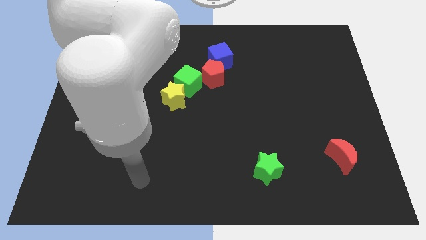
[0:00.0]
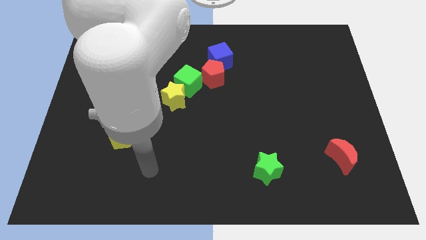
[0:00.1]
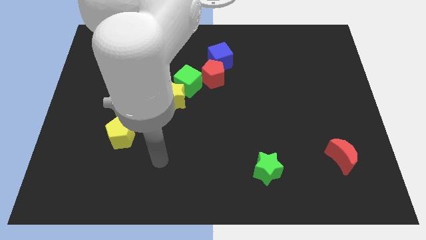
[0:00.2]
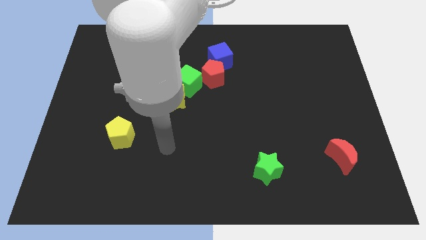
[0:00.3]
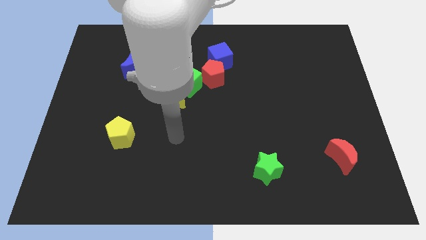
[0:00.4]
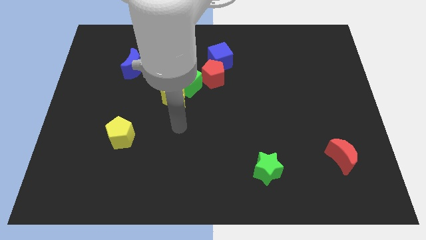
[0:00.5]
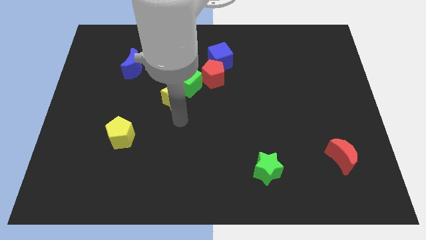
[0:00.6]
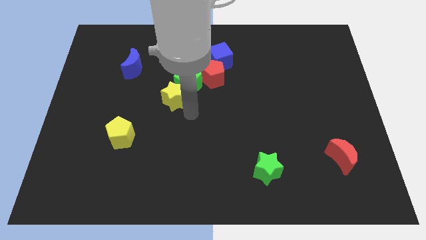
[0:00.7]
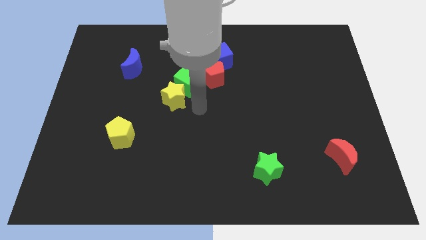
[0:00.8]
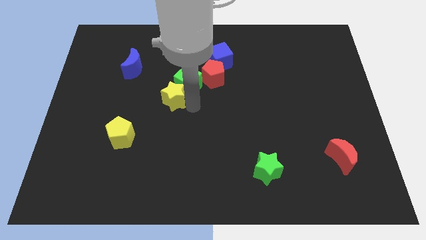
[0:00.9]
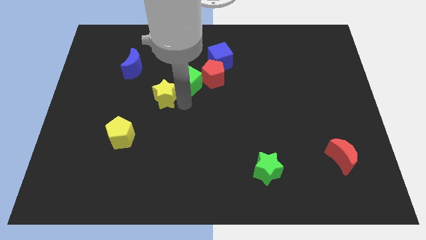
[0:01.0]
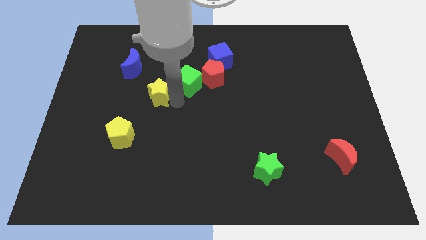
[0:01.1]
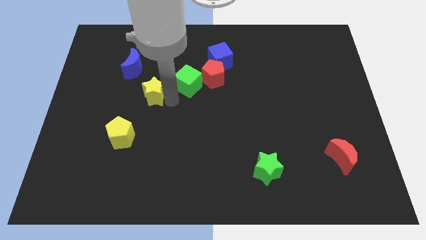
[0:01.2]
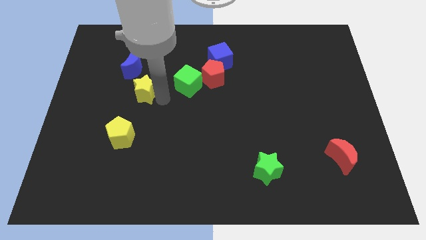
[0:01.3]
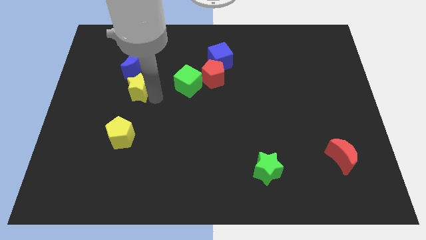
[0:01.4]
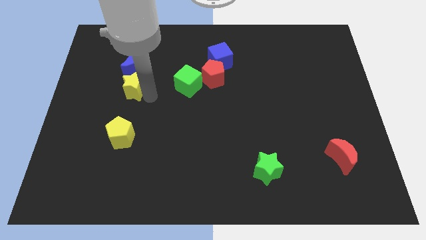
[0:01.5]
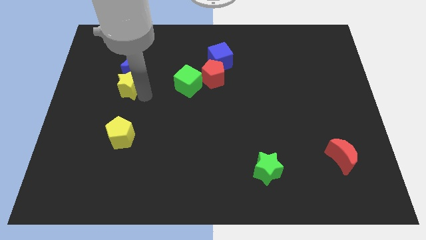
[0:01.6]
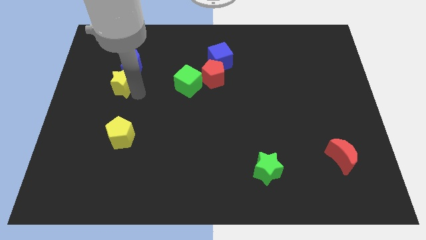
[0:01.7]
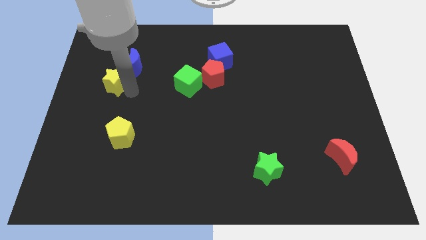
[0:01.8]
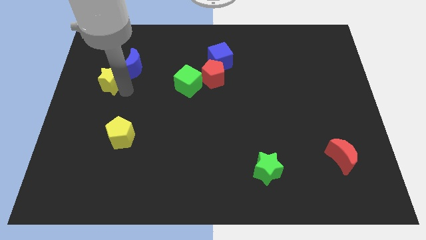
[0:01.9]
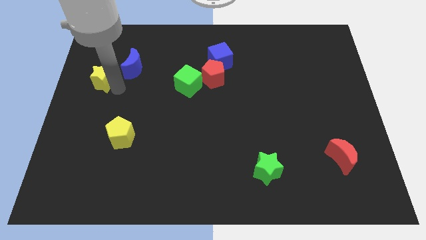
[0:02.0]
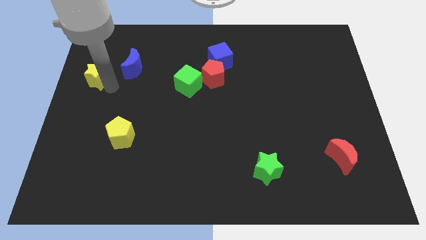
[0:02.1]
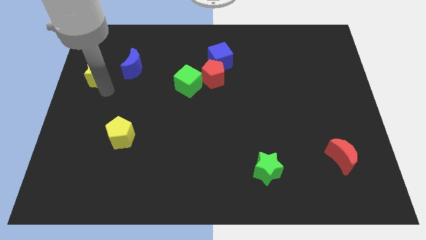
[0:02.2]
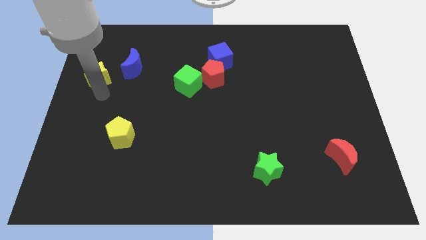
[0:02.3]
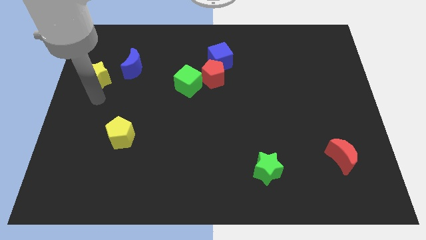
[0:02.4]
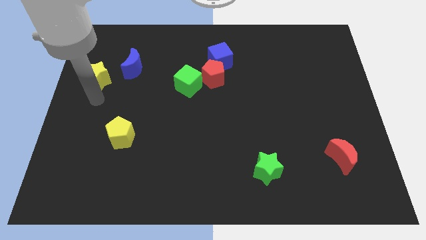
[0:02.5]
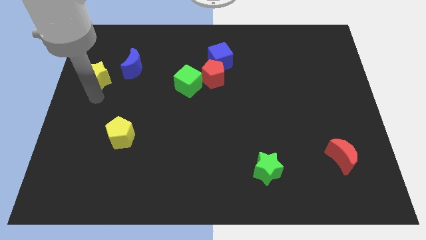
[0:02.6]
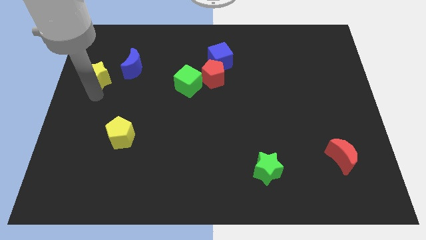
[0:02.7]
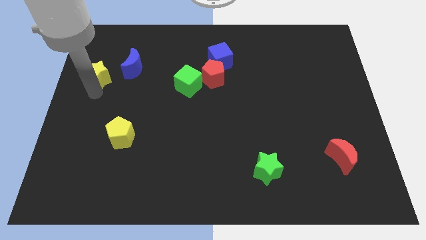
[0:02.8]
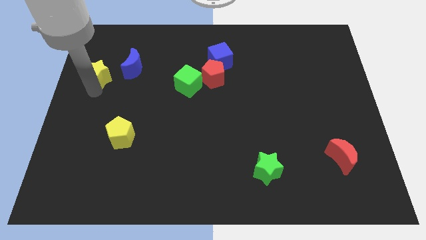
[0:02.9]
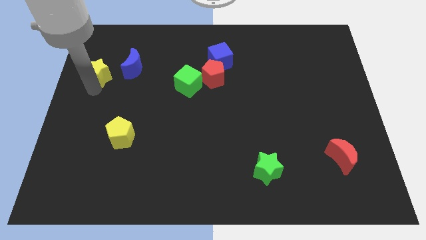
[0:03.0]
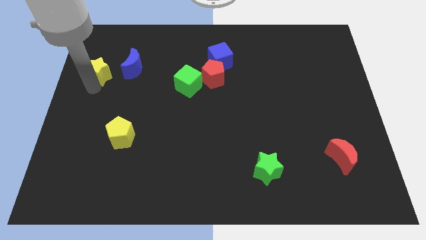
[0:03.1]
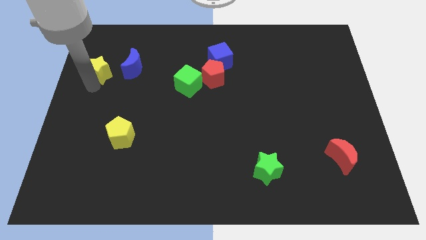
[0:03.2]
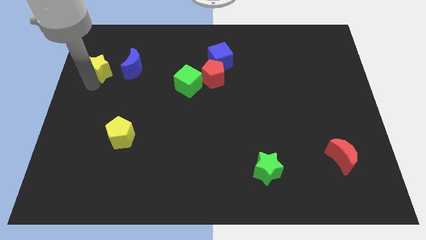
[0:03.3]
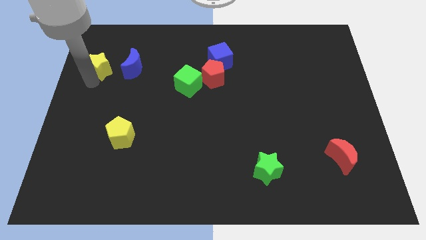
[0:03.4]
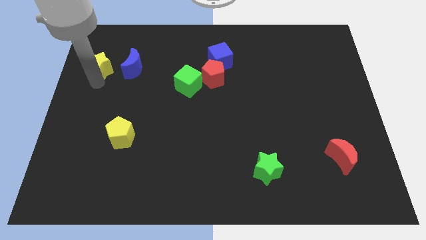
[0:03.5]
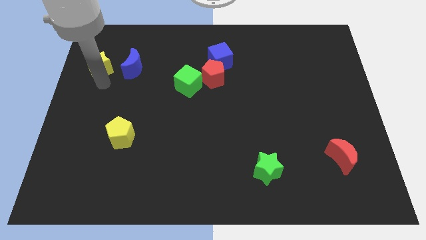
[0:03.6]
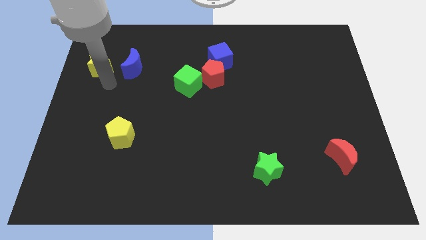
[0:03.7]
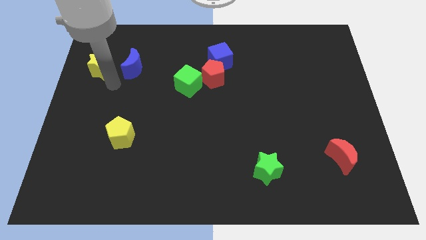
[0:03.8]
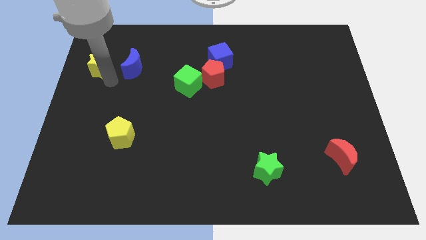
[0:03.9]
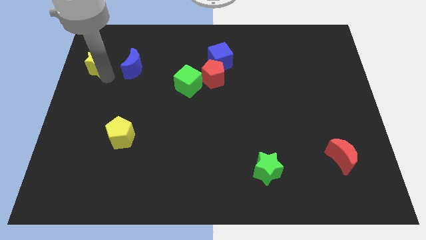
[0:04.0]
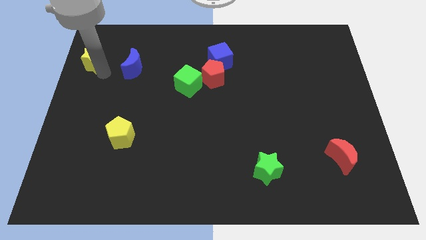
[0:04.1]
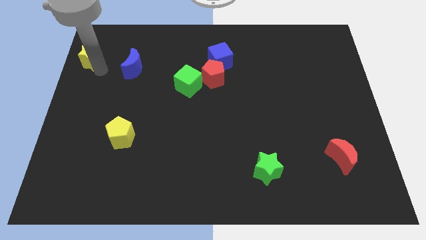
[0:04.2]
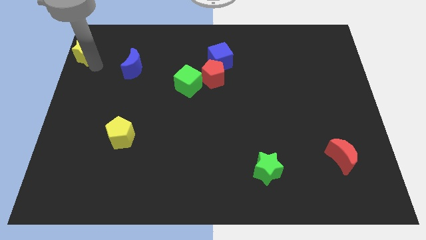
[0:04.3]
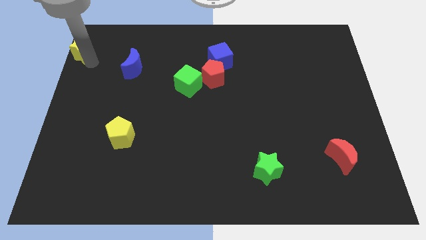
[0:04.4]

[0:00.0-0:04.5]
move the yellow star to the top left

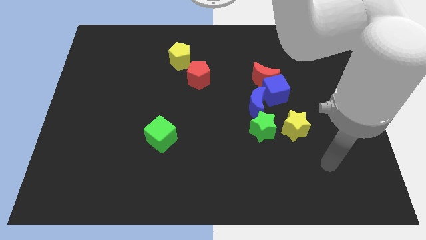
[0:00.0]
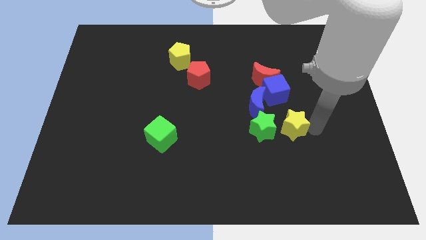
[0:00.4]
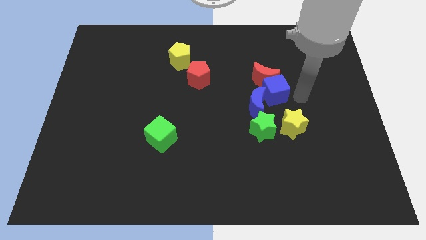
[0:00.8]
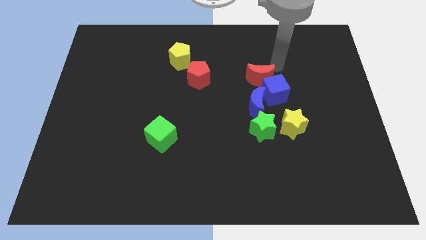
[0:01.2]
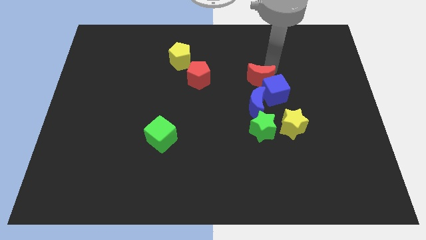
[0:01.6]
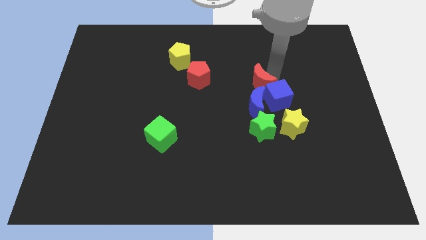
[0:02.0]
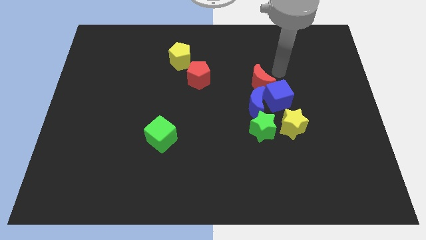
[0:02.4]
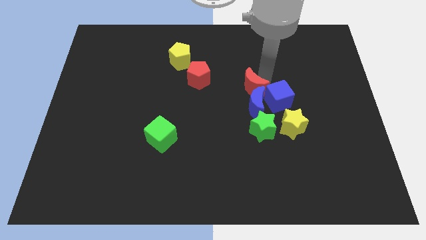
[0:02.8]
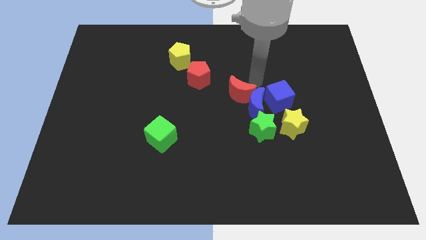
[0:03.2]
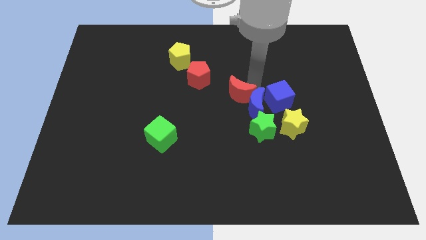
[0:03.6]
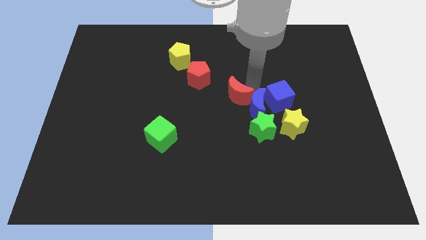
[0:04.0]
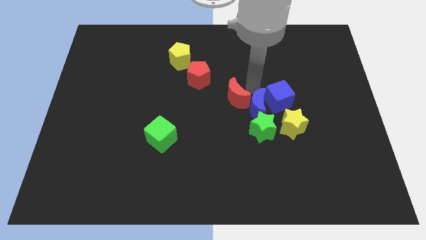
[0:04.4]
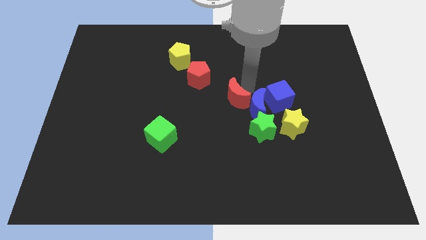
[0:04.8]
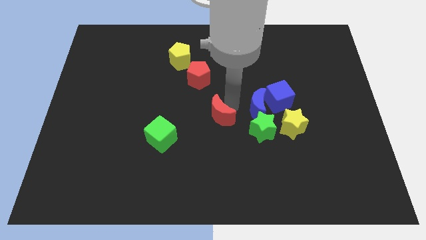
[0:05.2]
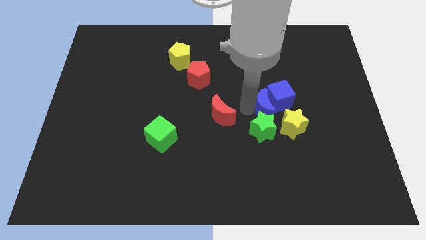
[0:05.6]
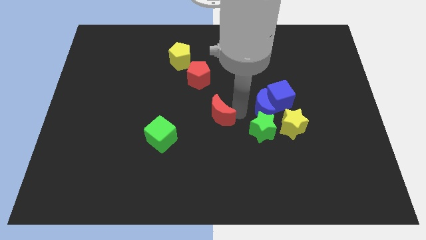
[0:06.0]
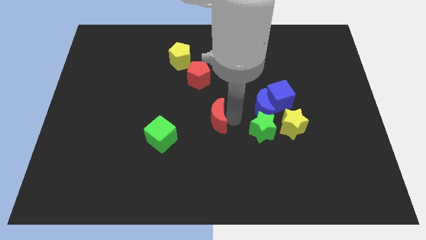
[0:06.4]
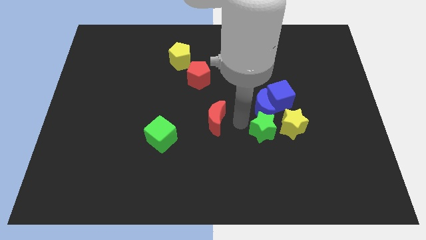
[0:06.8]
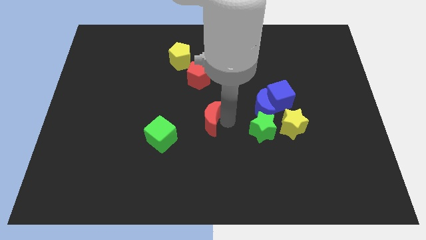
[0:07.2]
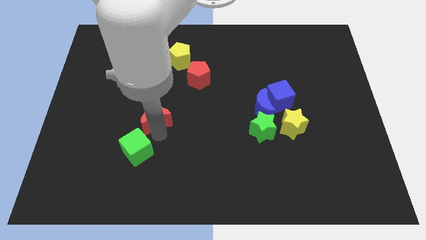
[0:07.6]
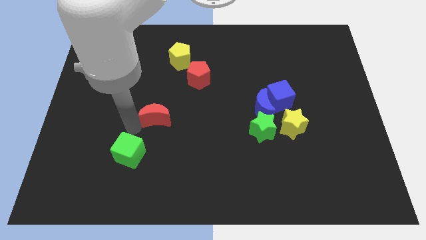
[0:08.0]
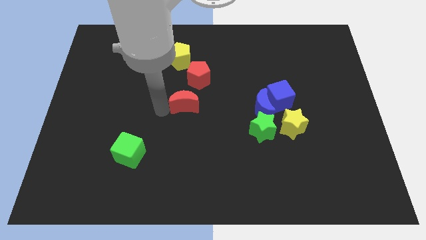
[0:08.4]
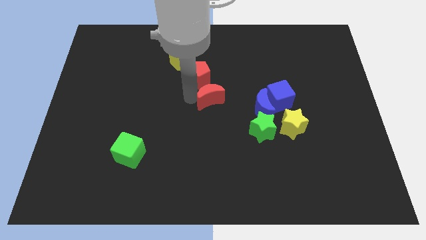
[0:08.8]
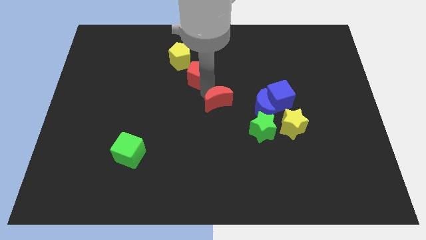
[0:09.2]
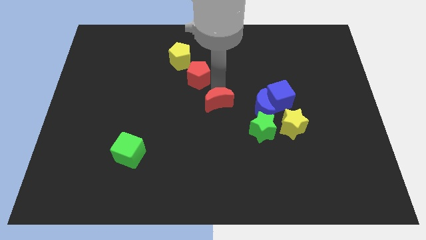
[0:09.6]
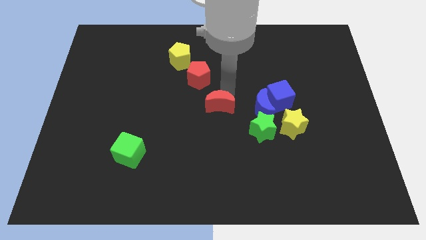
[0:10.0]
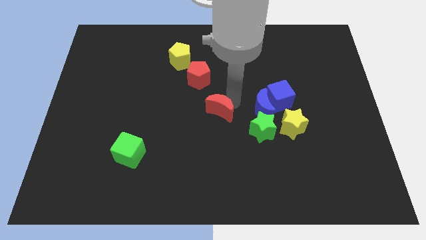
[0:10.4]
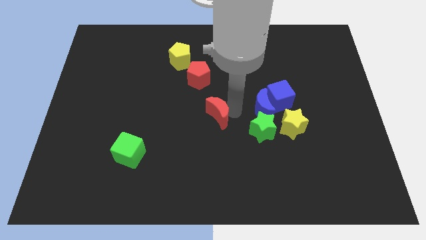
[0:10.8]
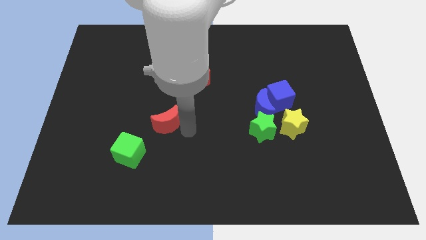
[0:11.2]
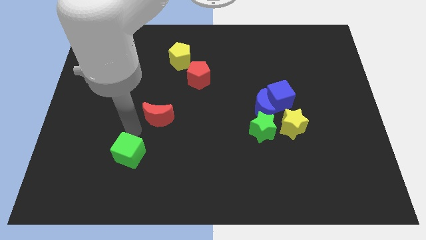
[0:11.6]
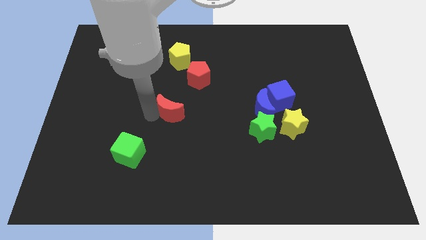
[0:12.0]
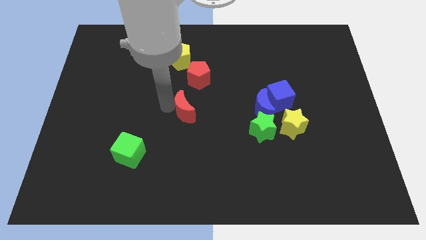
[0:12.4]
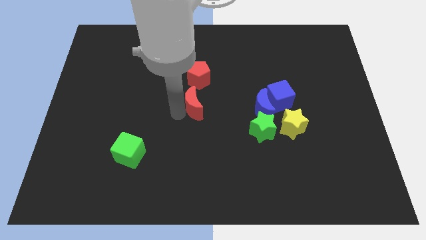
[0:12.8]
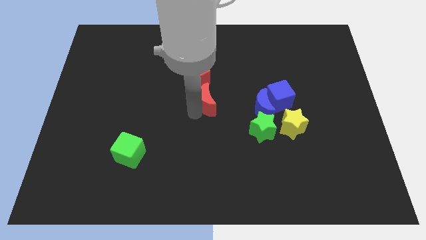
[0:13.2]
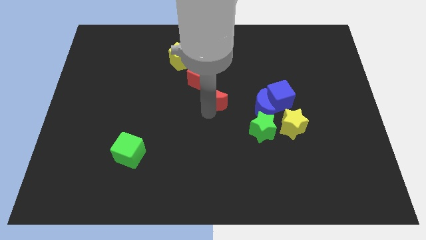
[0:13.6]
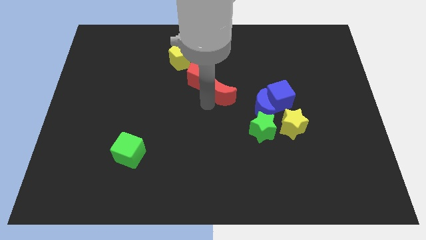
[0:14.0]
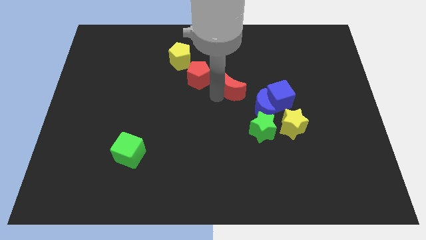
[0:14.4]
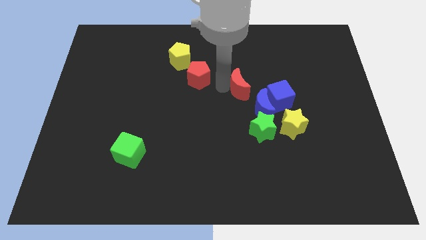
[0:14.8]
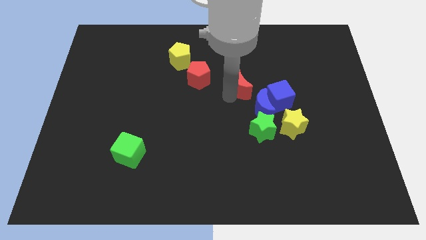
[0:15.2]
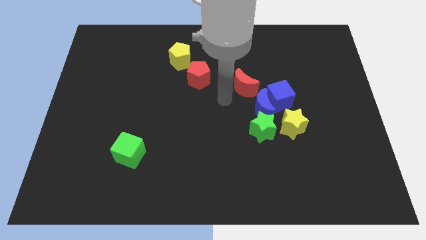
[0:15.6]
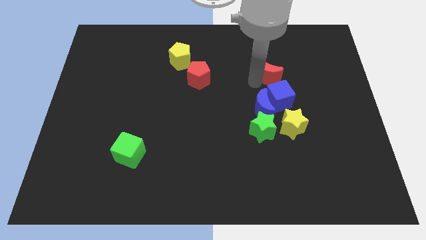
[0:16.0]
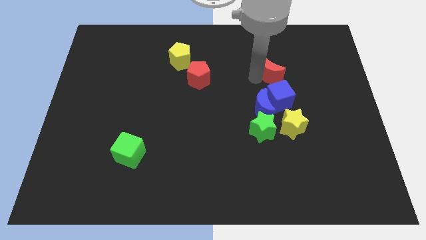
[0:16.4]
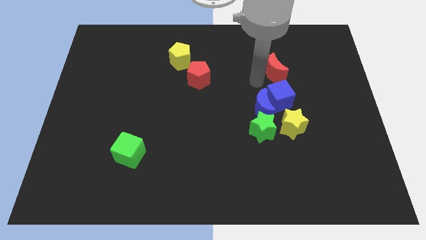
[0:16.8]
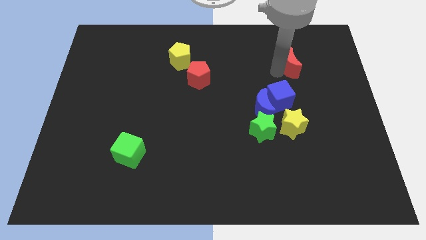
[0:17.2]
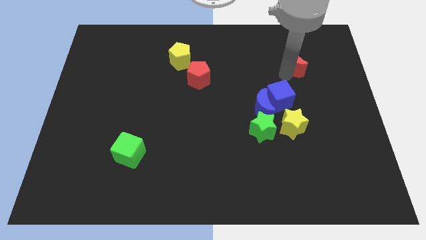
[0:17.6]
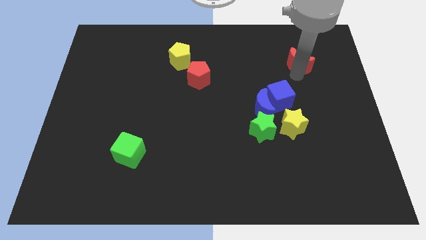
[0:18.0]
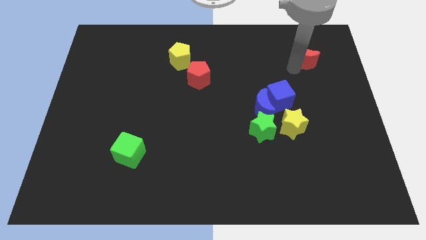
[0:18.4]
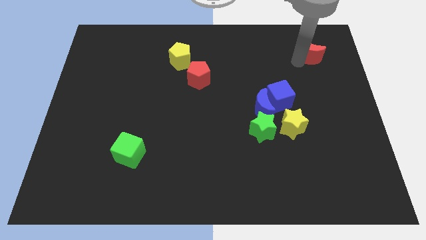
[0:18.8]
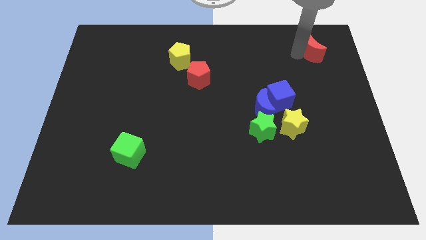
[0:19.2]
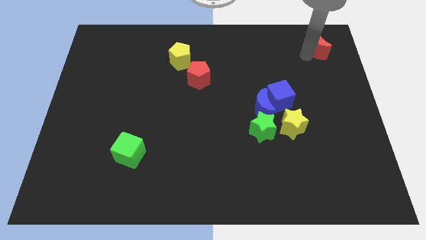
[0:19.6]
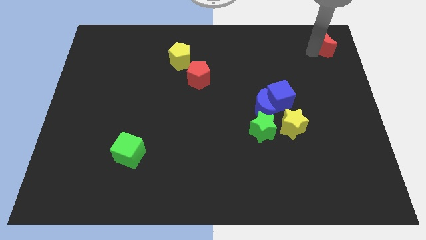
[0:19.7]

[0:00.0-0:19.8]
put the red moon to the upper right corner
